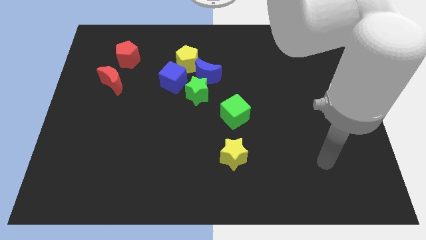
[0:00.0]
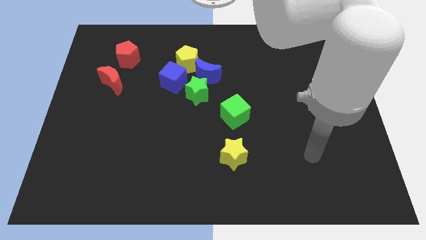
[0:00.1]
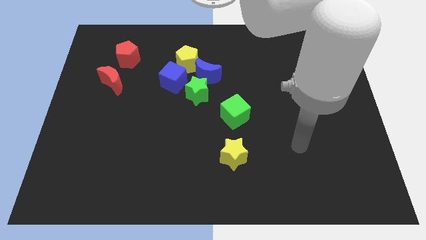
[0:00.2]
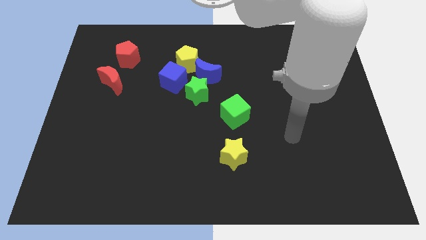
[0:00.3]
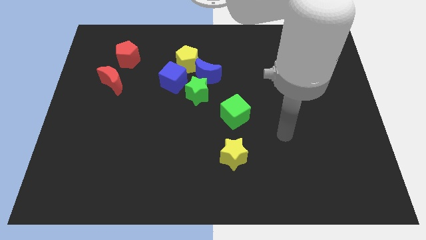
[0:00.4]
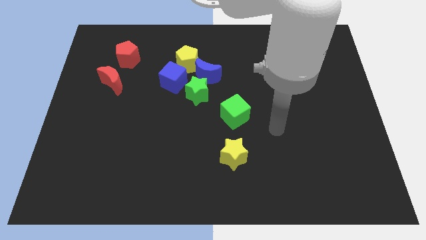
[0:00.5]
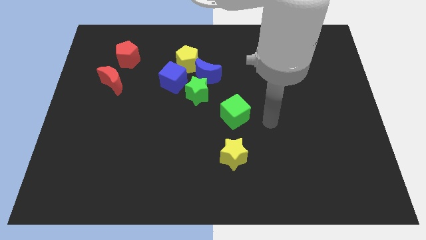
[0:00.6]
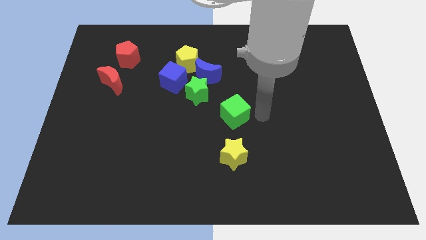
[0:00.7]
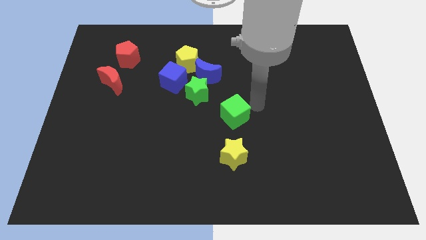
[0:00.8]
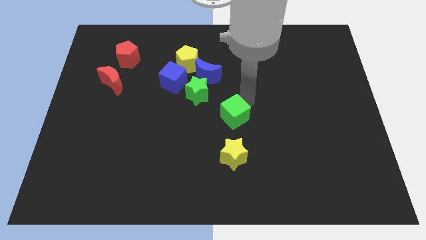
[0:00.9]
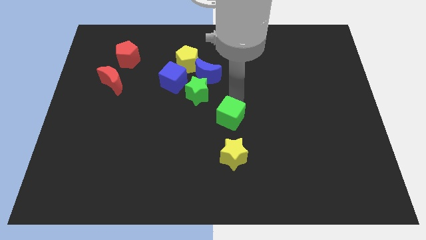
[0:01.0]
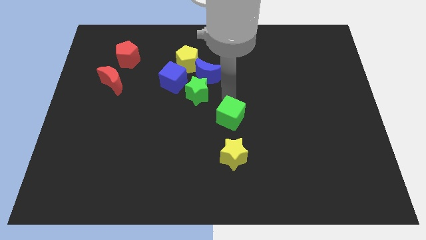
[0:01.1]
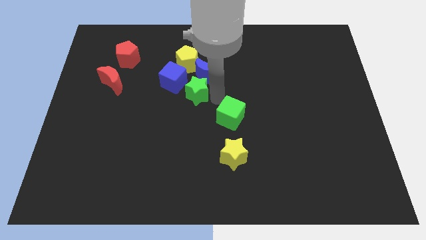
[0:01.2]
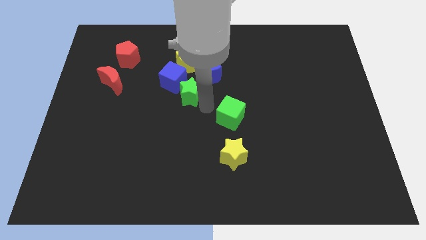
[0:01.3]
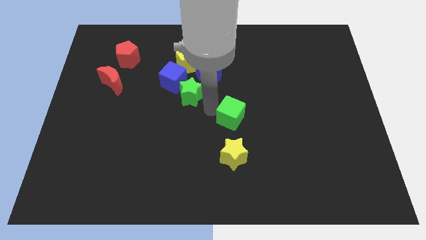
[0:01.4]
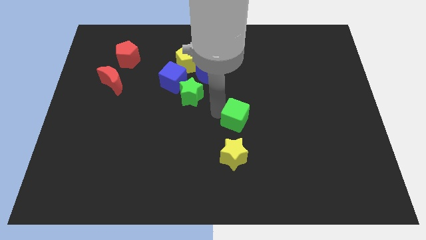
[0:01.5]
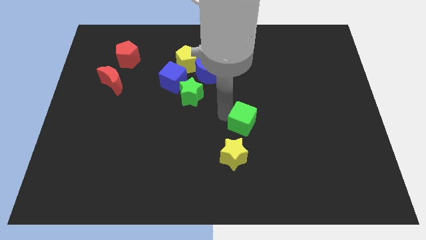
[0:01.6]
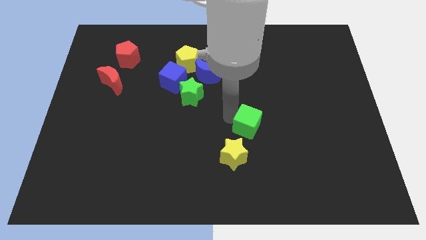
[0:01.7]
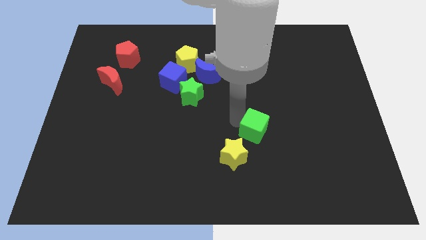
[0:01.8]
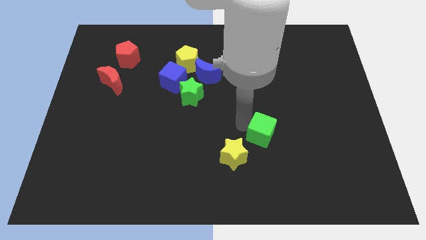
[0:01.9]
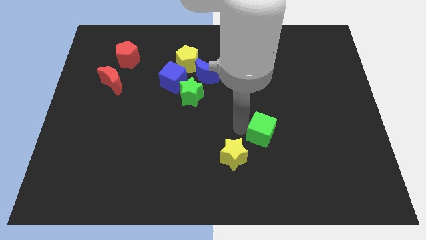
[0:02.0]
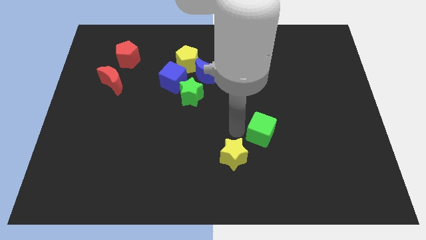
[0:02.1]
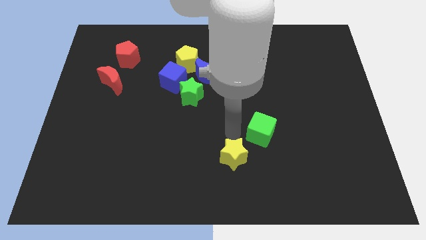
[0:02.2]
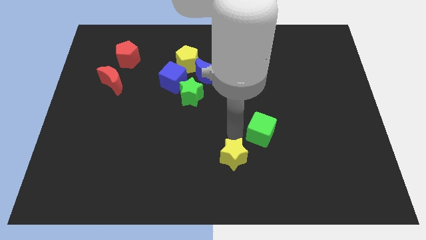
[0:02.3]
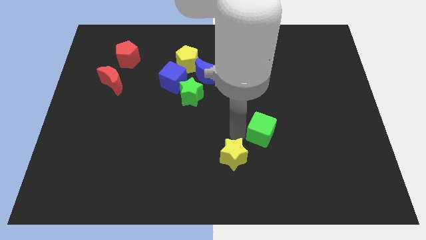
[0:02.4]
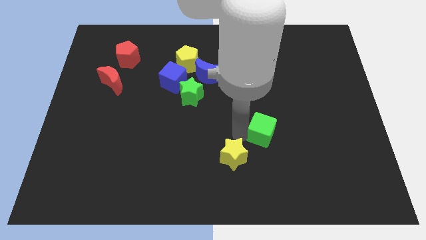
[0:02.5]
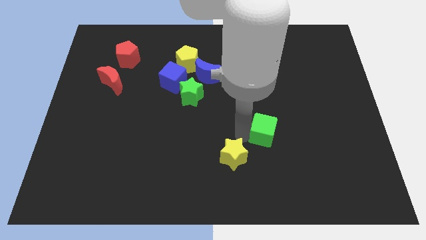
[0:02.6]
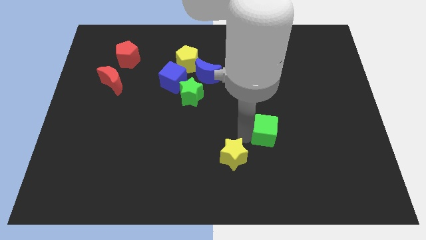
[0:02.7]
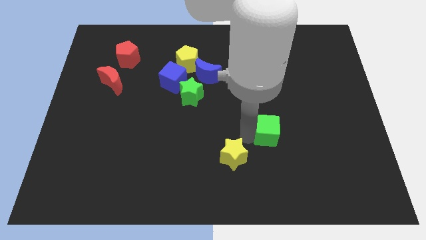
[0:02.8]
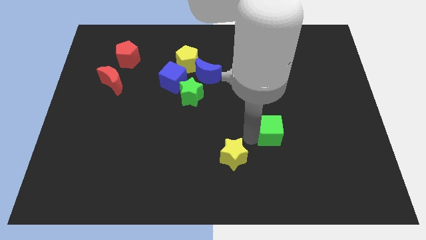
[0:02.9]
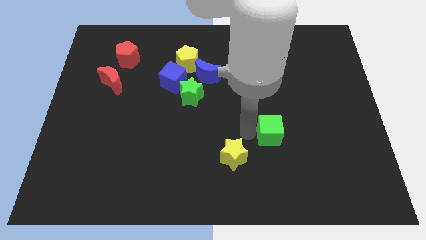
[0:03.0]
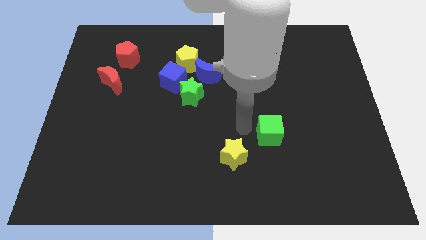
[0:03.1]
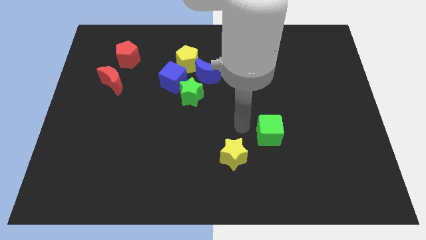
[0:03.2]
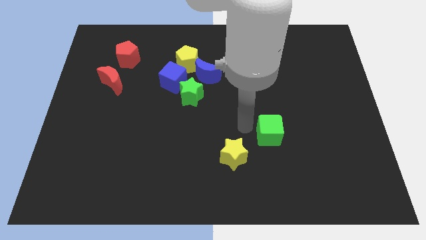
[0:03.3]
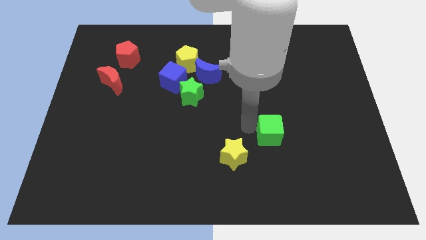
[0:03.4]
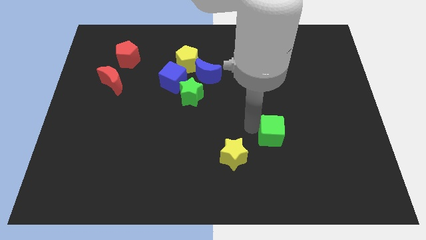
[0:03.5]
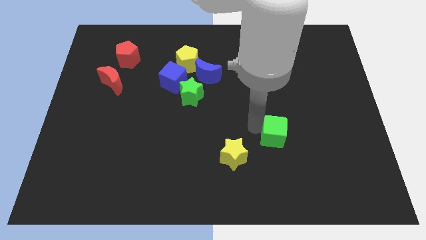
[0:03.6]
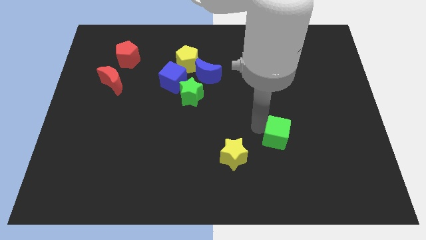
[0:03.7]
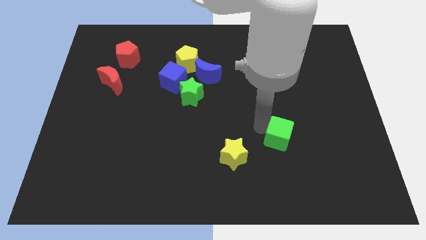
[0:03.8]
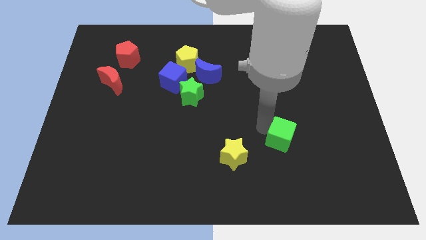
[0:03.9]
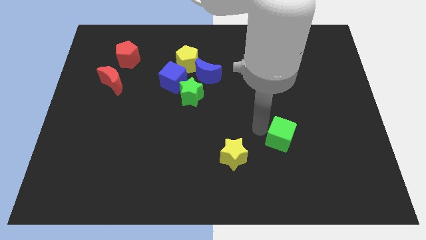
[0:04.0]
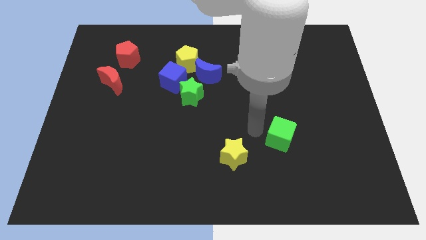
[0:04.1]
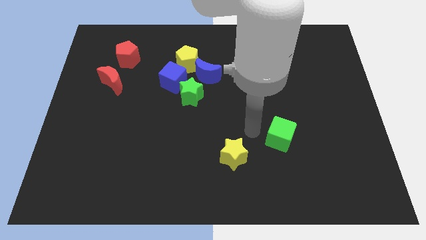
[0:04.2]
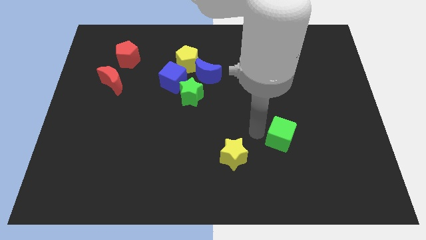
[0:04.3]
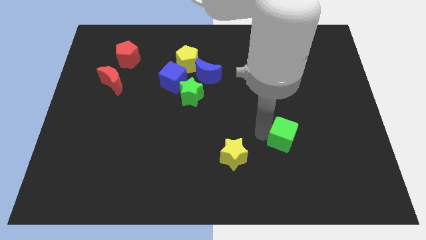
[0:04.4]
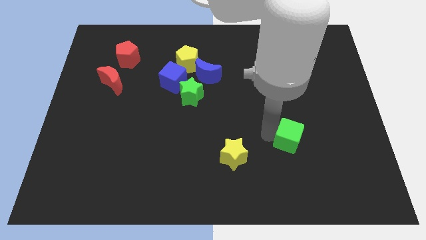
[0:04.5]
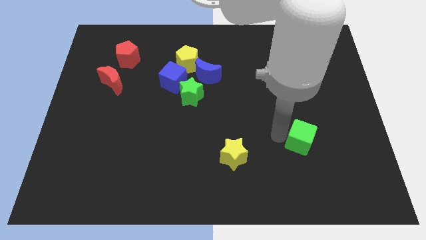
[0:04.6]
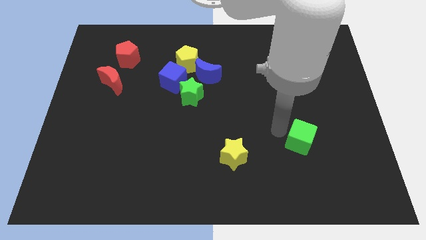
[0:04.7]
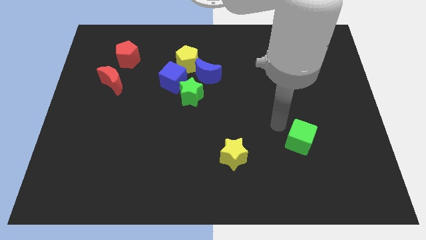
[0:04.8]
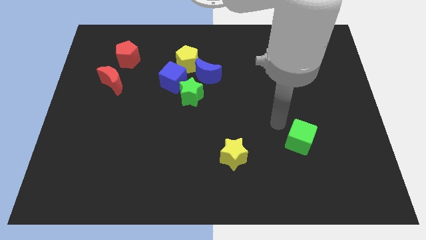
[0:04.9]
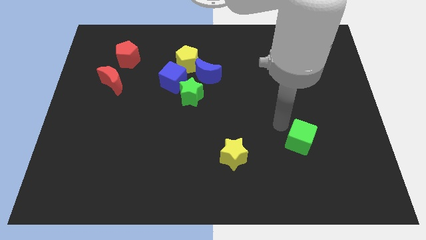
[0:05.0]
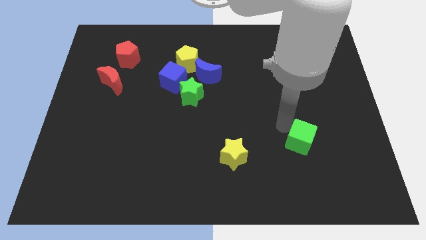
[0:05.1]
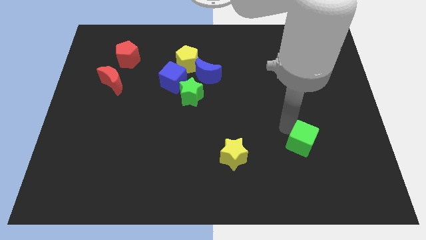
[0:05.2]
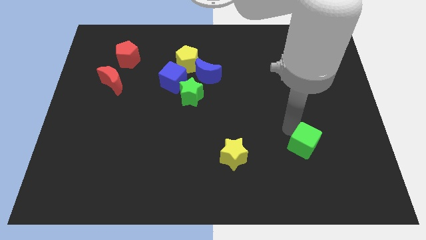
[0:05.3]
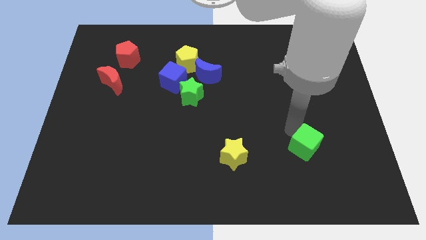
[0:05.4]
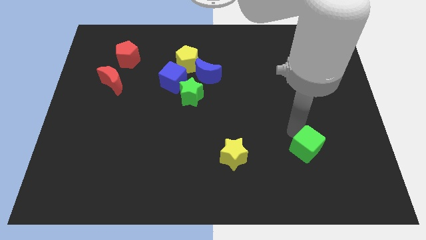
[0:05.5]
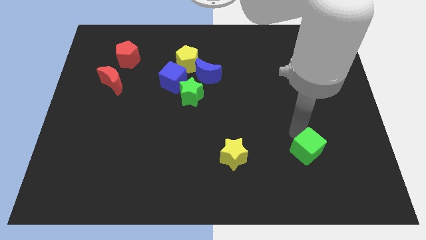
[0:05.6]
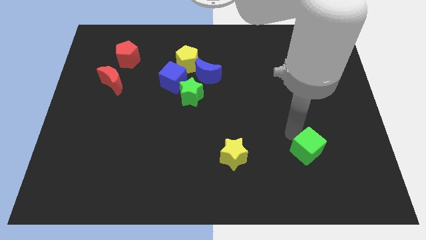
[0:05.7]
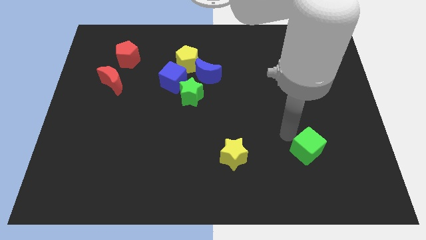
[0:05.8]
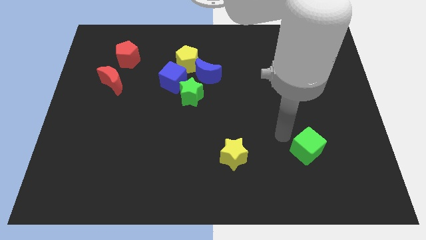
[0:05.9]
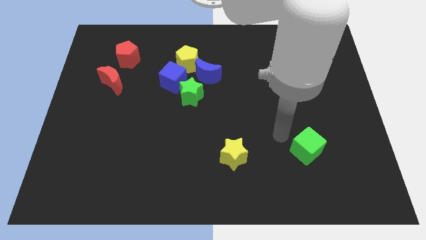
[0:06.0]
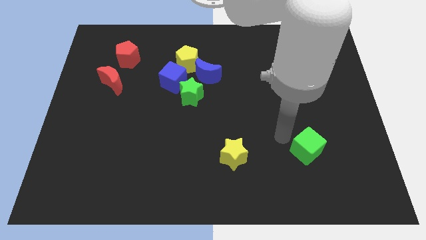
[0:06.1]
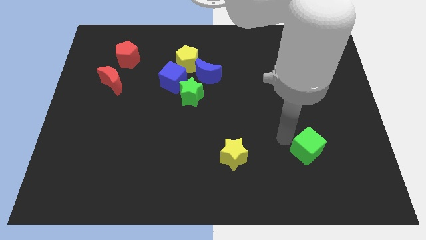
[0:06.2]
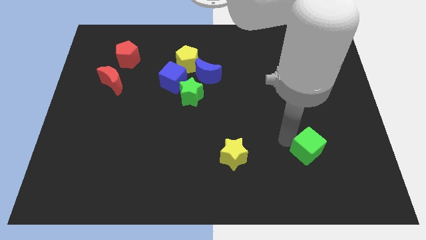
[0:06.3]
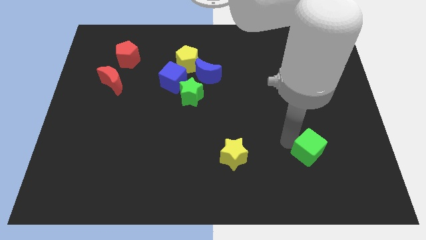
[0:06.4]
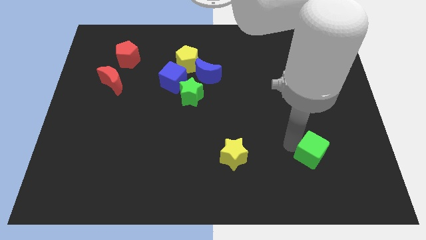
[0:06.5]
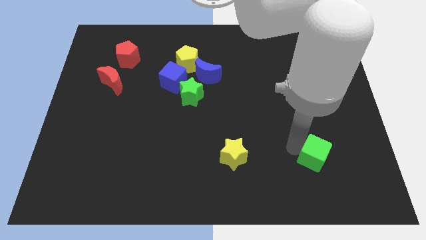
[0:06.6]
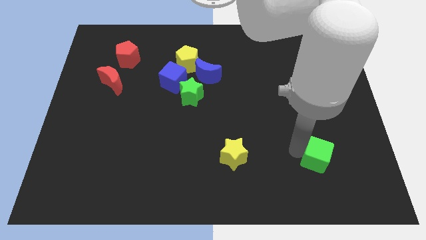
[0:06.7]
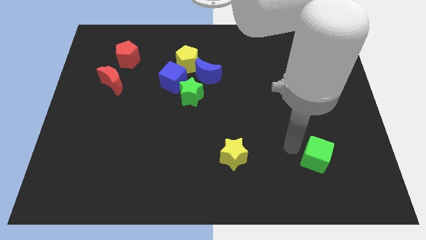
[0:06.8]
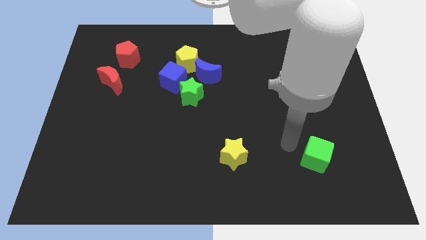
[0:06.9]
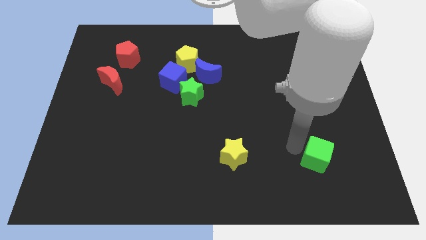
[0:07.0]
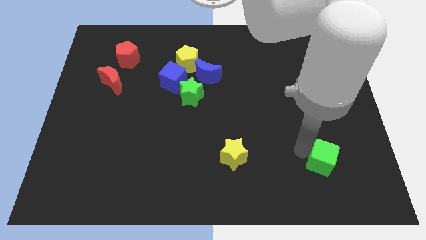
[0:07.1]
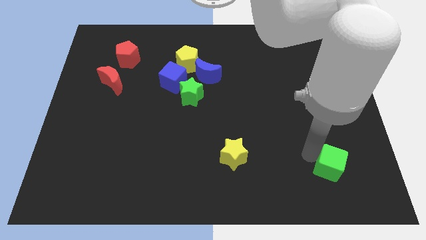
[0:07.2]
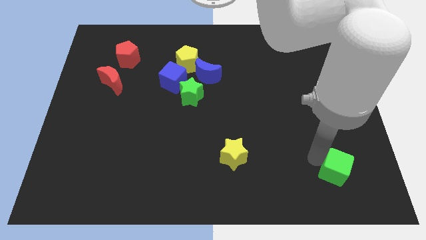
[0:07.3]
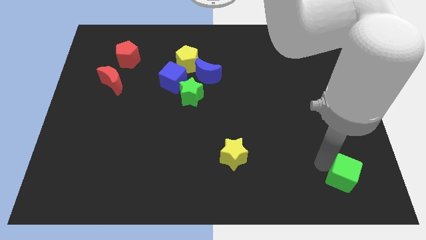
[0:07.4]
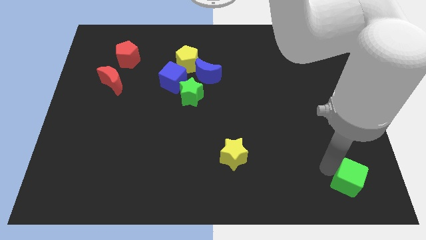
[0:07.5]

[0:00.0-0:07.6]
slide the green cube to the lower right corner
